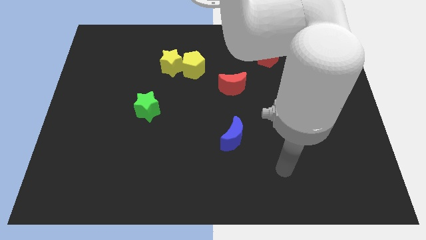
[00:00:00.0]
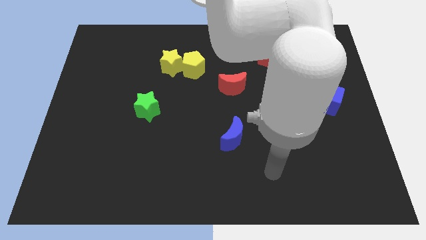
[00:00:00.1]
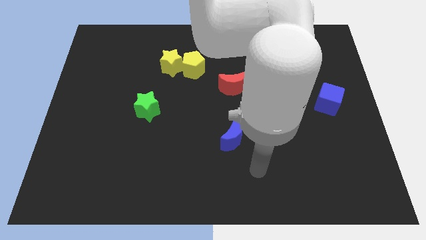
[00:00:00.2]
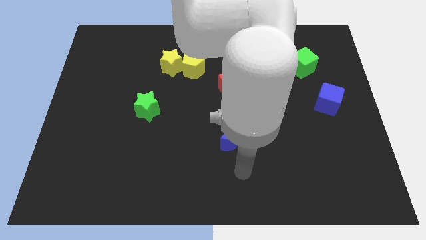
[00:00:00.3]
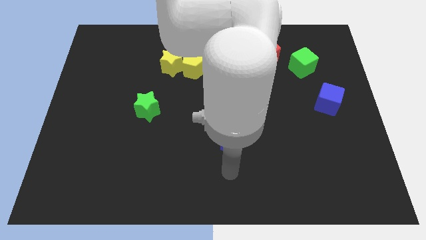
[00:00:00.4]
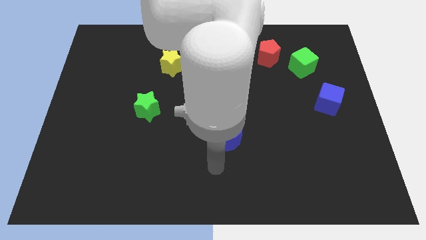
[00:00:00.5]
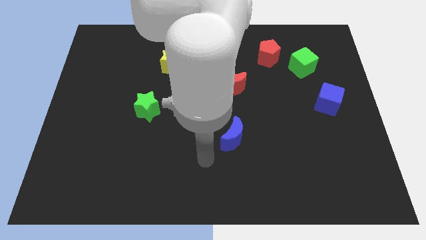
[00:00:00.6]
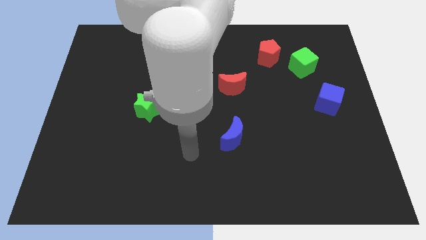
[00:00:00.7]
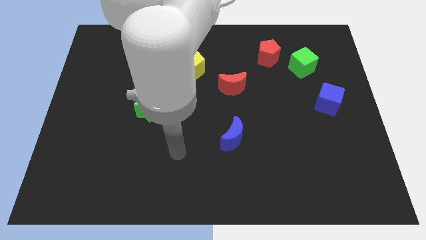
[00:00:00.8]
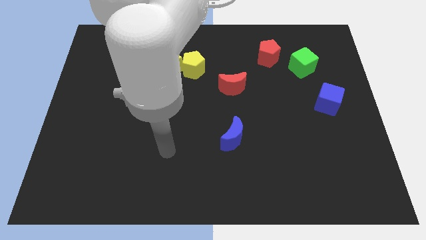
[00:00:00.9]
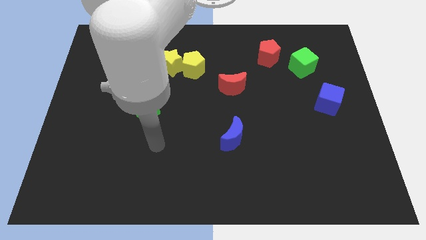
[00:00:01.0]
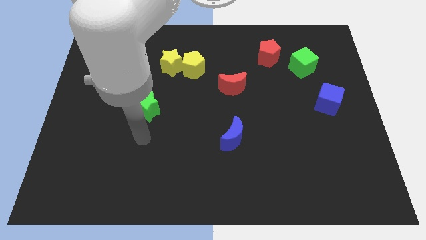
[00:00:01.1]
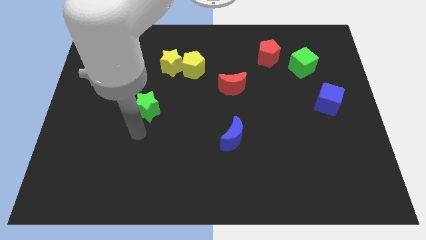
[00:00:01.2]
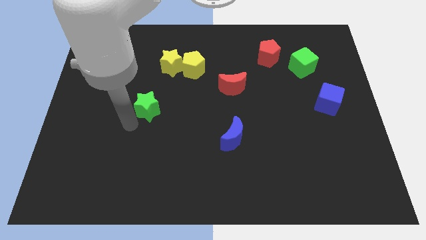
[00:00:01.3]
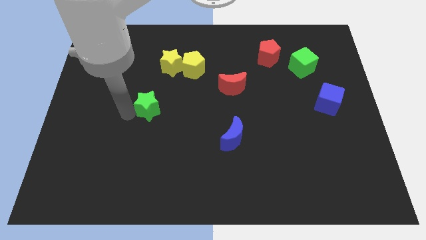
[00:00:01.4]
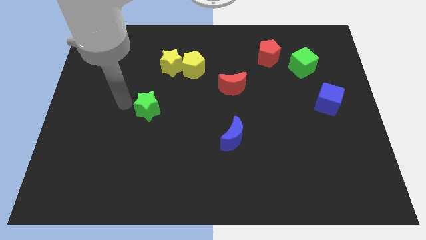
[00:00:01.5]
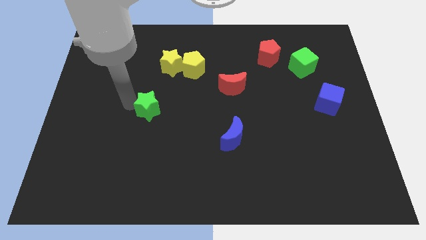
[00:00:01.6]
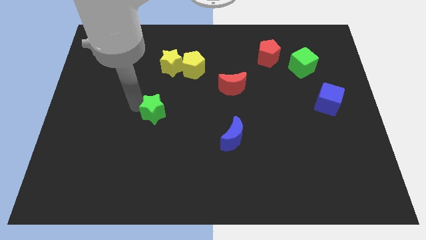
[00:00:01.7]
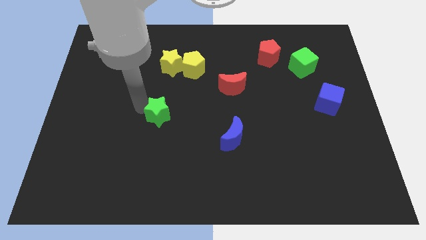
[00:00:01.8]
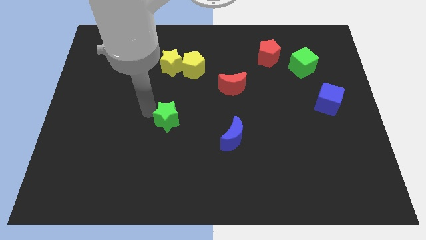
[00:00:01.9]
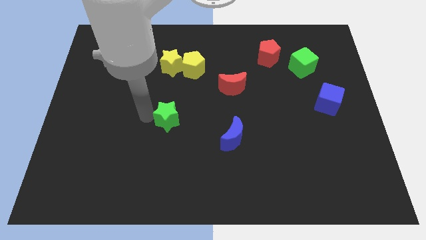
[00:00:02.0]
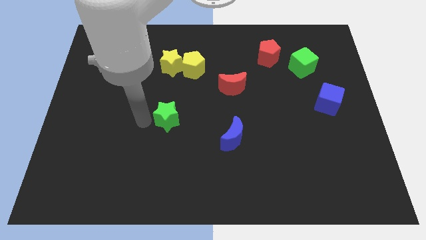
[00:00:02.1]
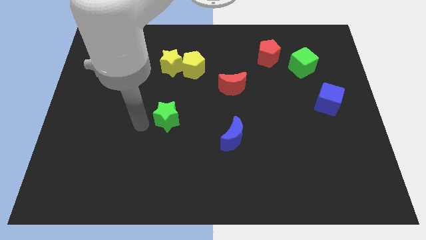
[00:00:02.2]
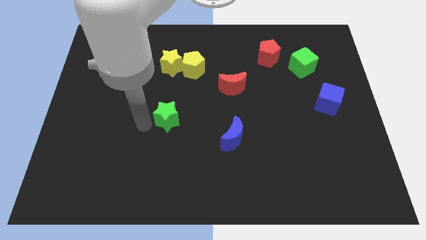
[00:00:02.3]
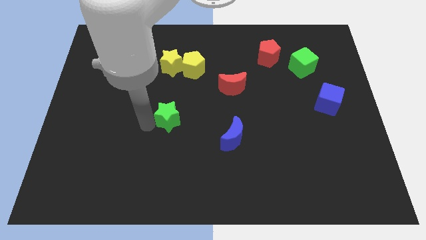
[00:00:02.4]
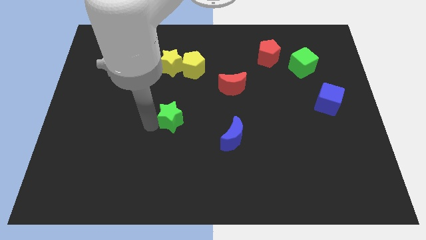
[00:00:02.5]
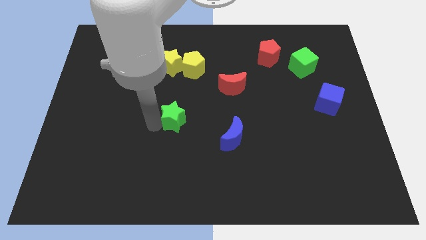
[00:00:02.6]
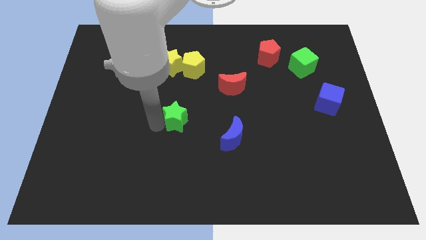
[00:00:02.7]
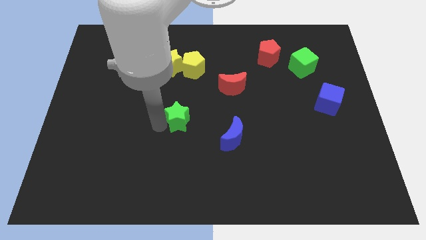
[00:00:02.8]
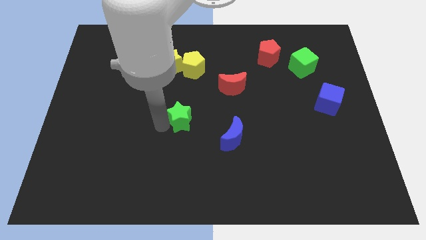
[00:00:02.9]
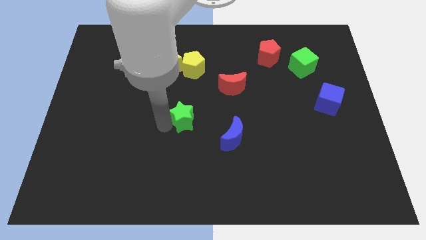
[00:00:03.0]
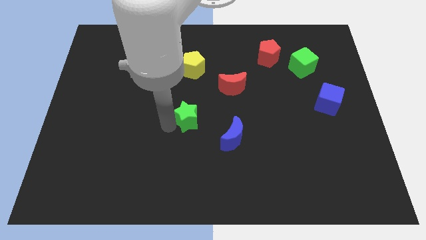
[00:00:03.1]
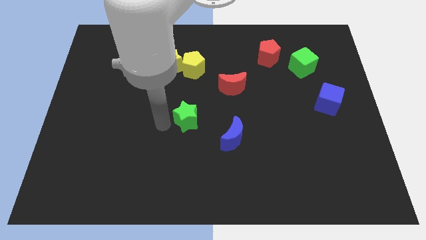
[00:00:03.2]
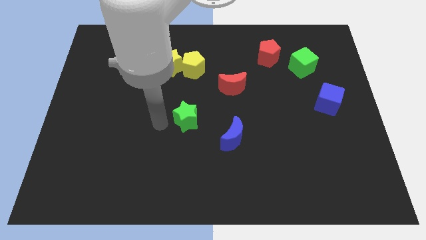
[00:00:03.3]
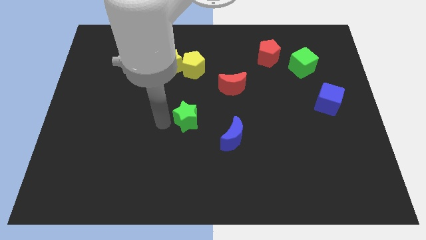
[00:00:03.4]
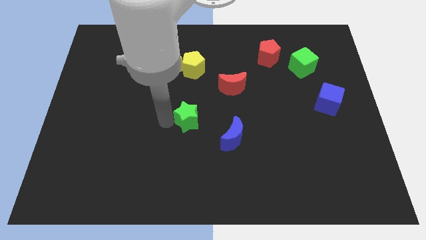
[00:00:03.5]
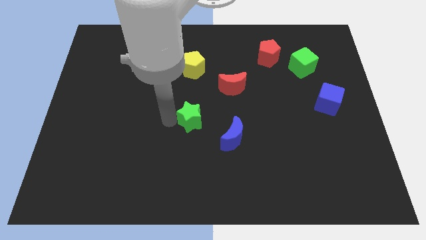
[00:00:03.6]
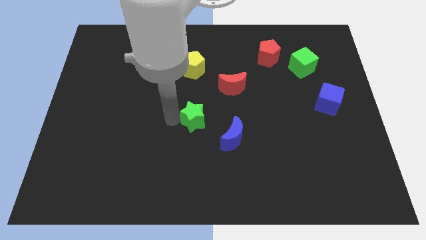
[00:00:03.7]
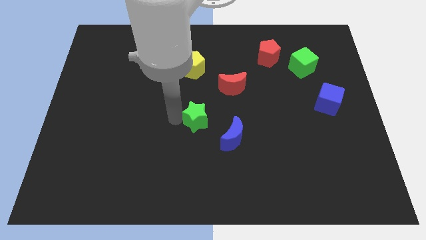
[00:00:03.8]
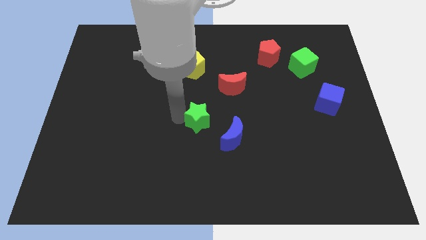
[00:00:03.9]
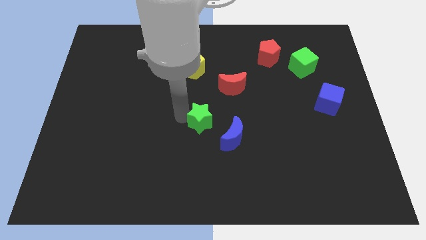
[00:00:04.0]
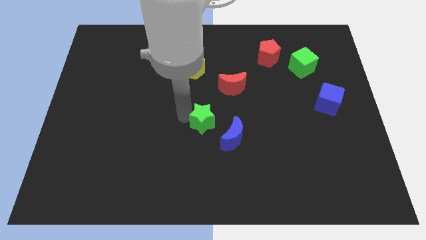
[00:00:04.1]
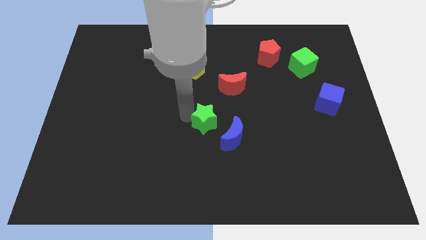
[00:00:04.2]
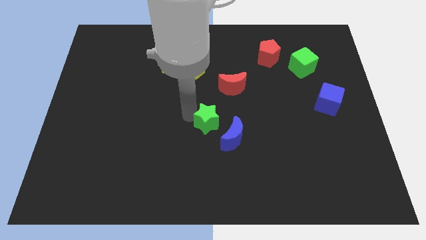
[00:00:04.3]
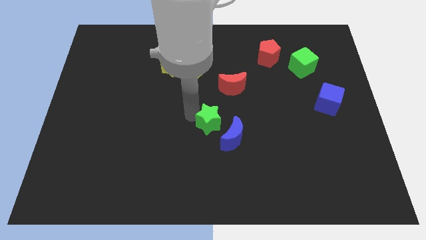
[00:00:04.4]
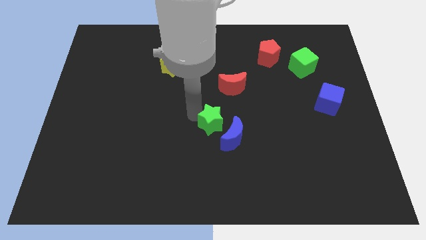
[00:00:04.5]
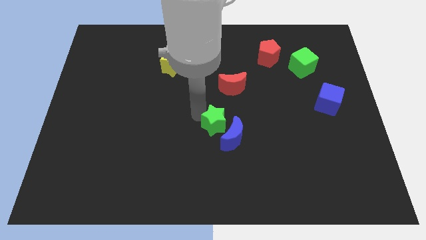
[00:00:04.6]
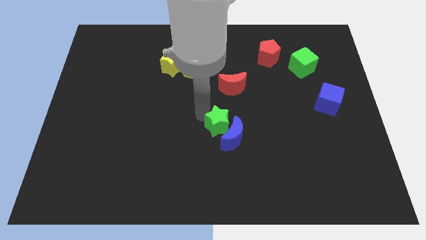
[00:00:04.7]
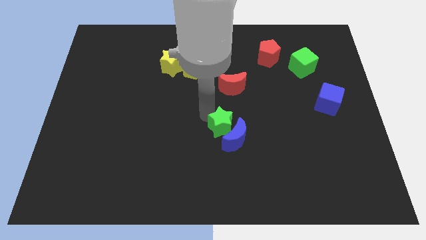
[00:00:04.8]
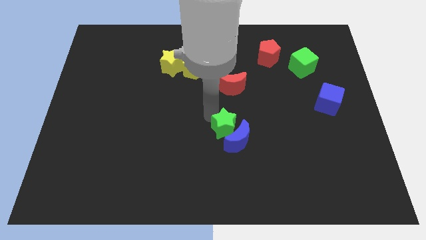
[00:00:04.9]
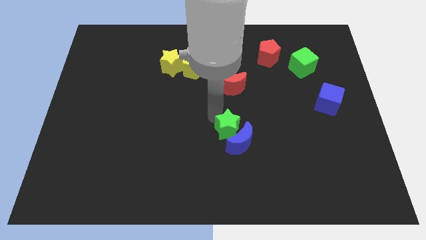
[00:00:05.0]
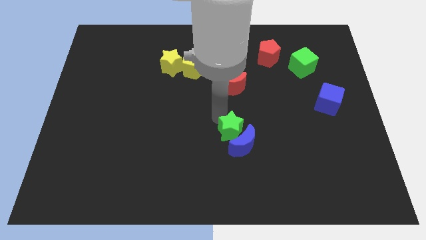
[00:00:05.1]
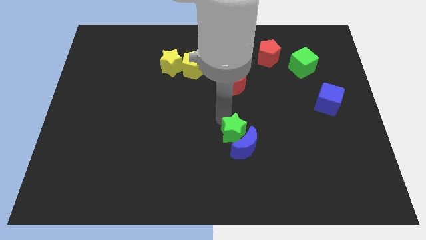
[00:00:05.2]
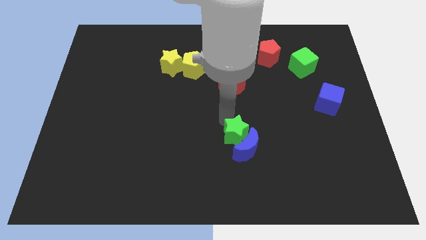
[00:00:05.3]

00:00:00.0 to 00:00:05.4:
push the green star to the top right of the blue moon

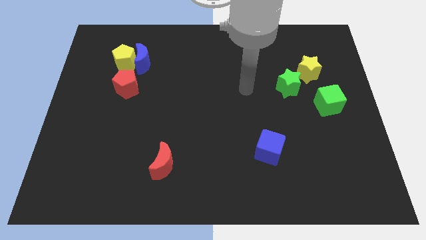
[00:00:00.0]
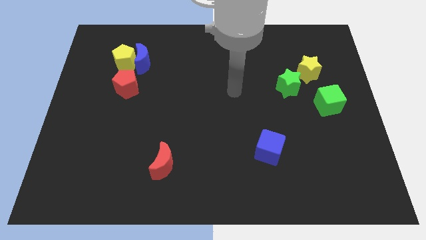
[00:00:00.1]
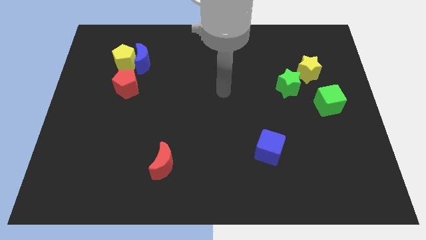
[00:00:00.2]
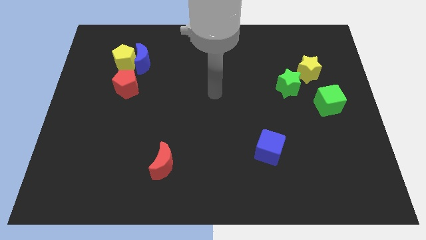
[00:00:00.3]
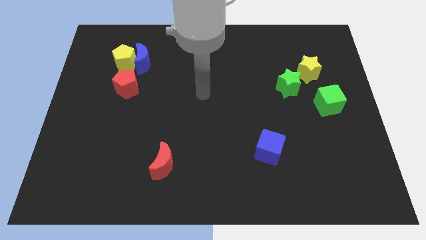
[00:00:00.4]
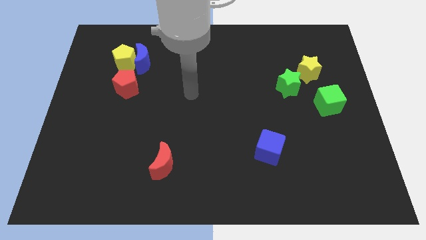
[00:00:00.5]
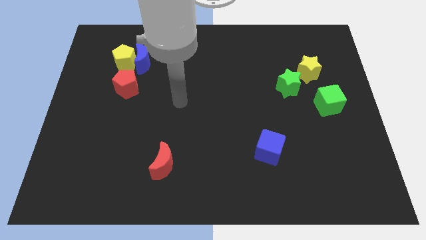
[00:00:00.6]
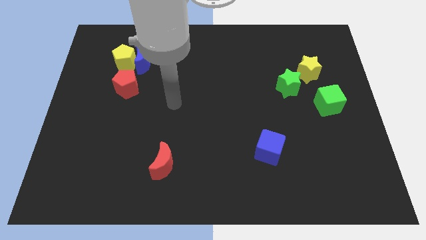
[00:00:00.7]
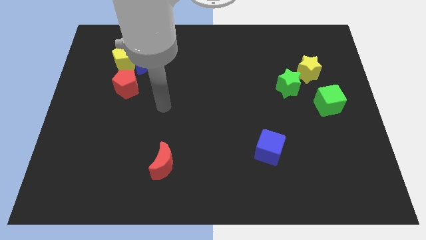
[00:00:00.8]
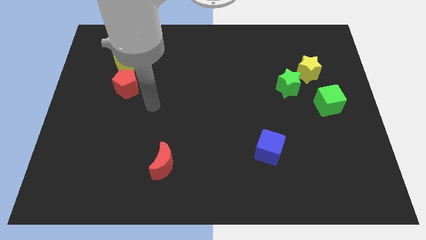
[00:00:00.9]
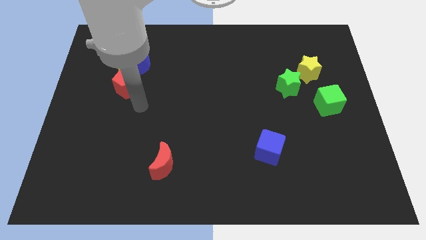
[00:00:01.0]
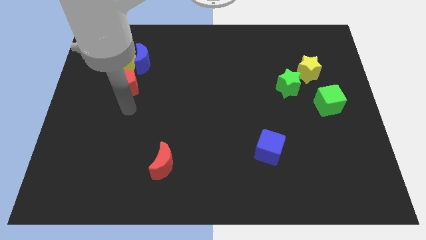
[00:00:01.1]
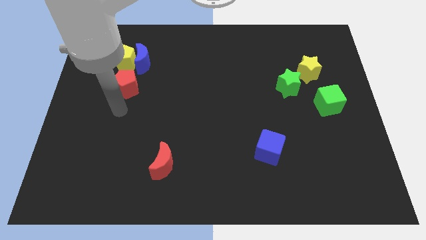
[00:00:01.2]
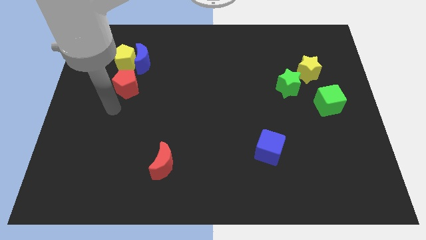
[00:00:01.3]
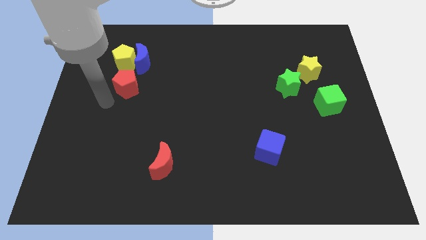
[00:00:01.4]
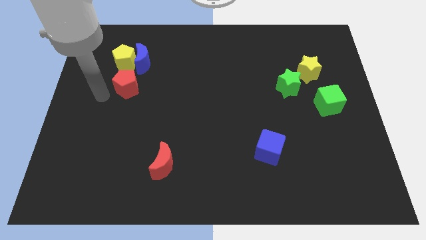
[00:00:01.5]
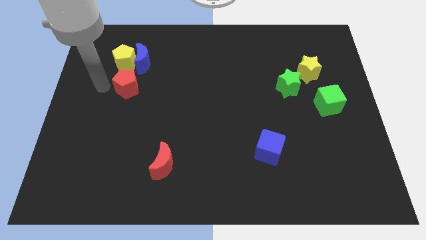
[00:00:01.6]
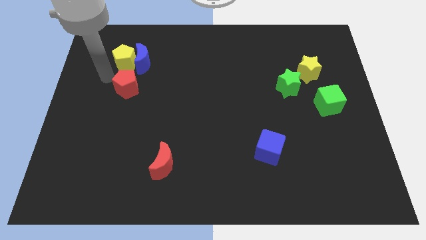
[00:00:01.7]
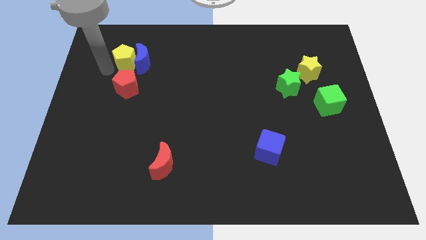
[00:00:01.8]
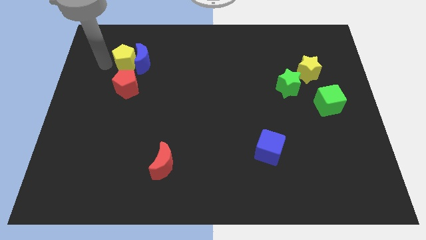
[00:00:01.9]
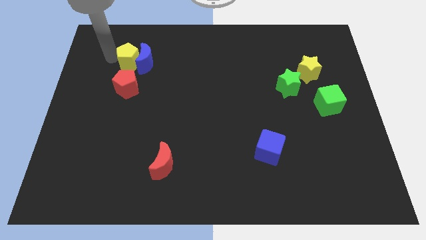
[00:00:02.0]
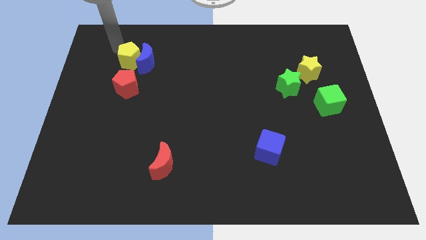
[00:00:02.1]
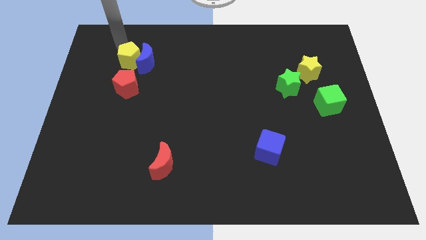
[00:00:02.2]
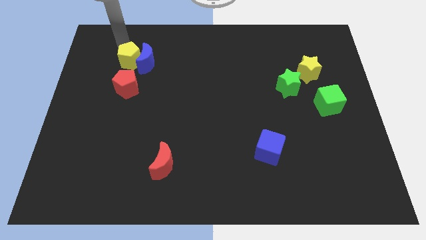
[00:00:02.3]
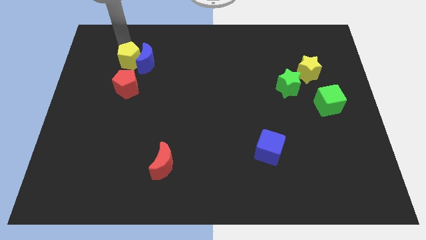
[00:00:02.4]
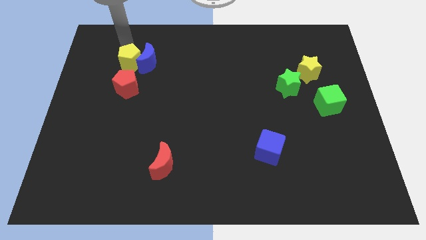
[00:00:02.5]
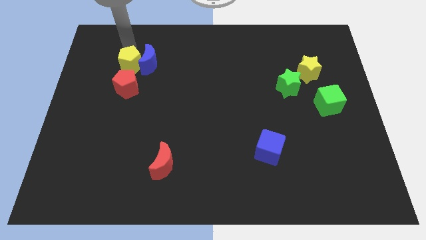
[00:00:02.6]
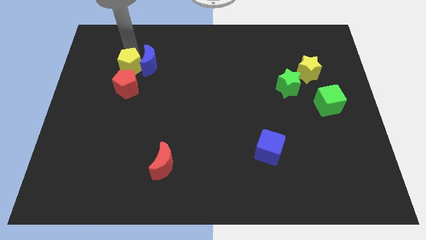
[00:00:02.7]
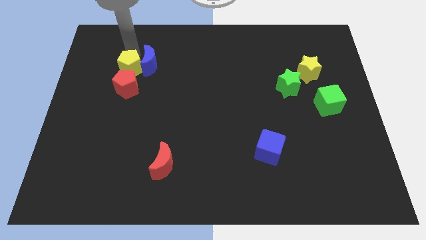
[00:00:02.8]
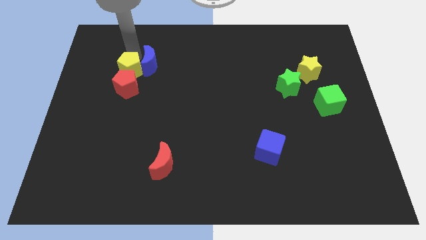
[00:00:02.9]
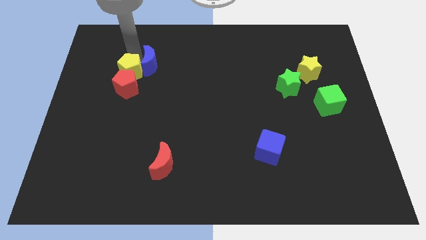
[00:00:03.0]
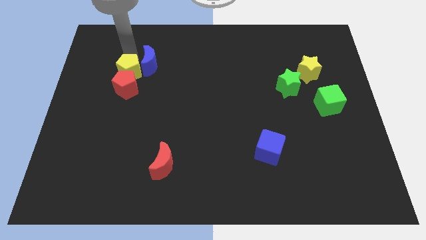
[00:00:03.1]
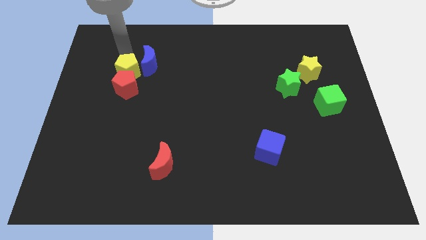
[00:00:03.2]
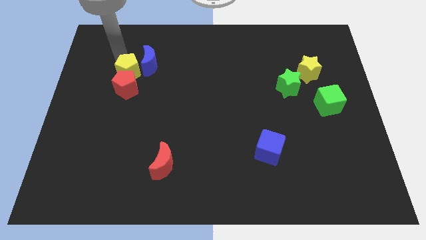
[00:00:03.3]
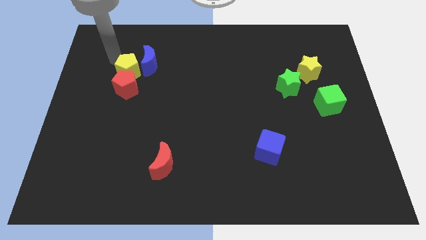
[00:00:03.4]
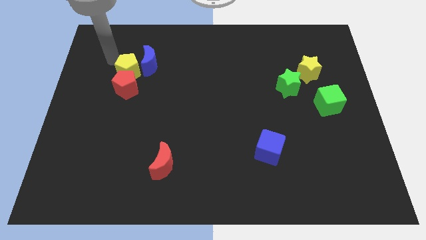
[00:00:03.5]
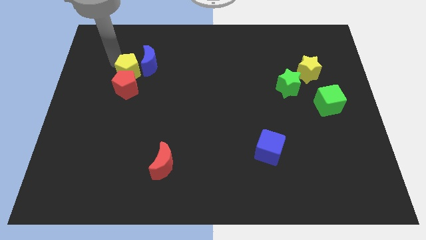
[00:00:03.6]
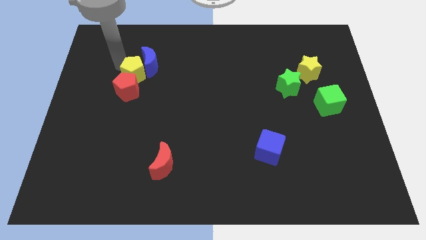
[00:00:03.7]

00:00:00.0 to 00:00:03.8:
put the yellow pentagon below the blue moon
